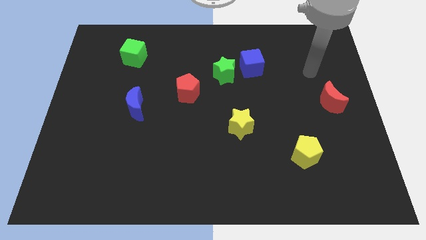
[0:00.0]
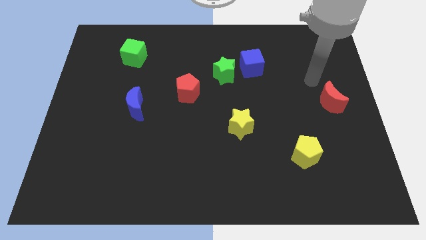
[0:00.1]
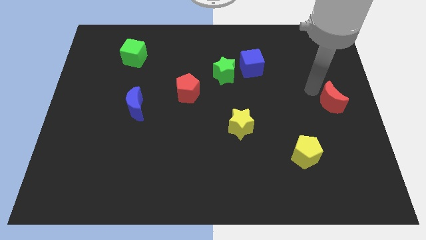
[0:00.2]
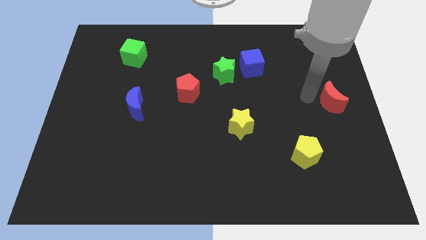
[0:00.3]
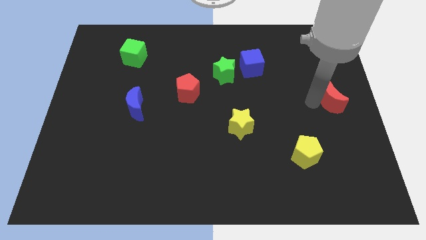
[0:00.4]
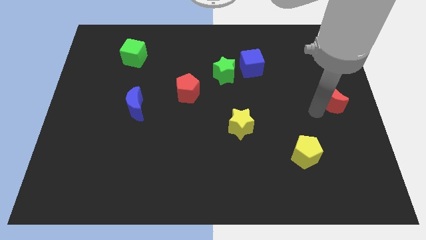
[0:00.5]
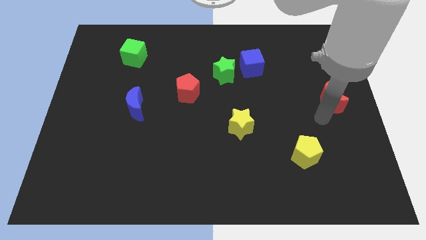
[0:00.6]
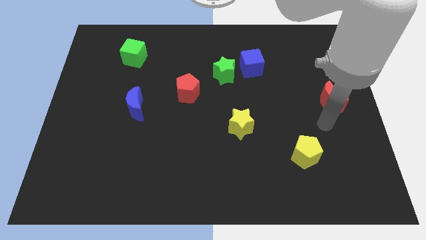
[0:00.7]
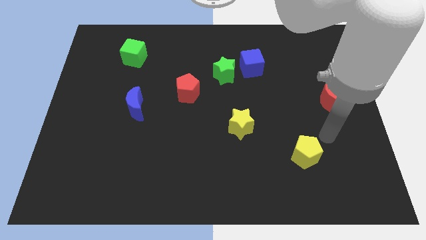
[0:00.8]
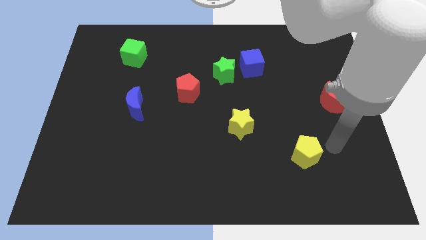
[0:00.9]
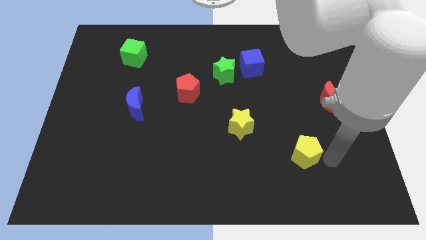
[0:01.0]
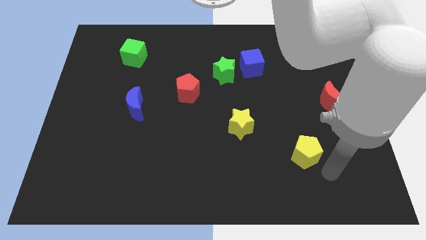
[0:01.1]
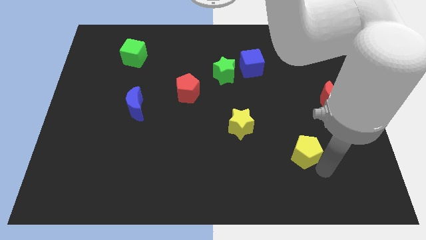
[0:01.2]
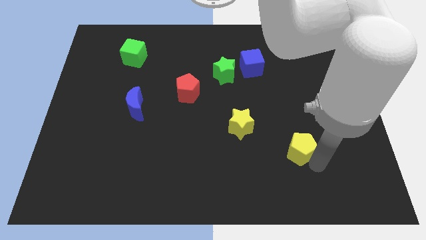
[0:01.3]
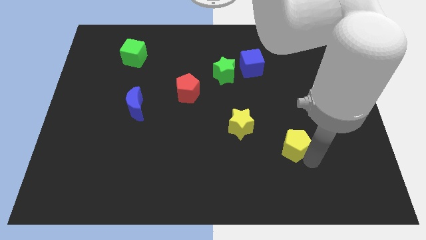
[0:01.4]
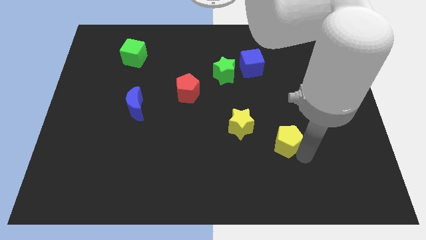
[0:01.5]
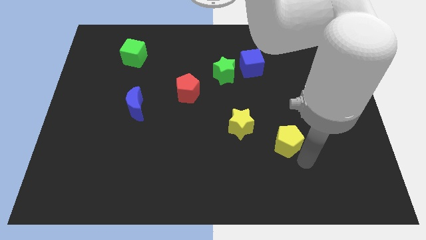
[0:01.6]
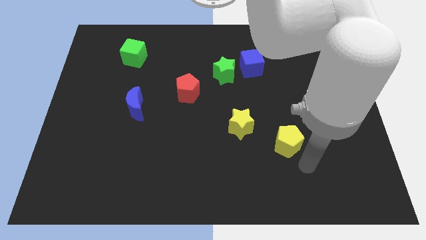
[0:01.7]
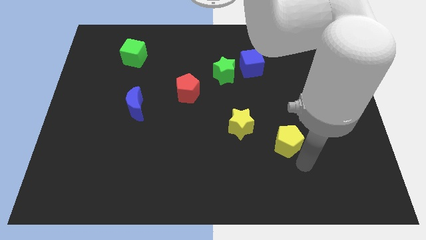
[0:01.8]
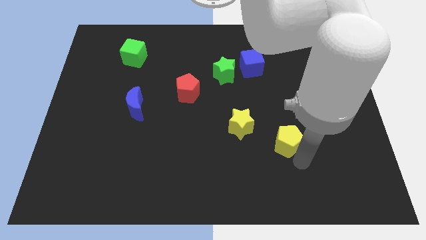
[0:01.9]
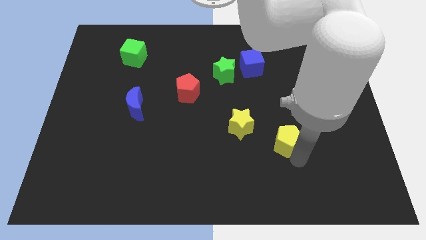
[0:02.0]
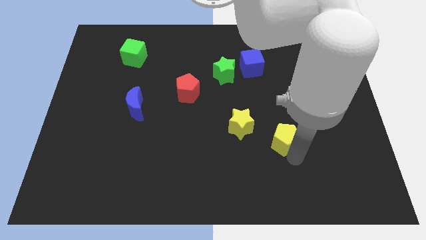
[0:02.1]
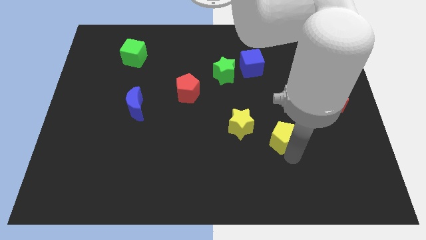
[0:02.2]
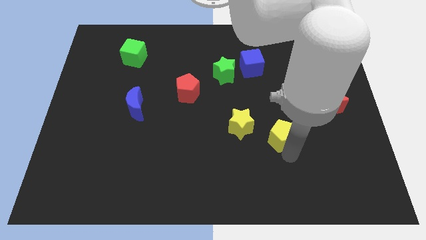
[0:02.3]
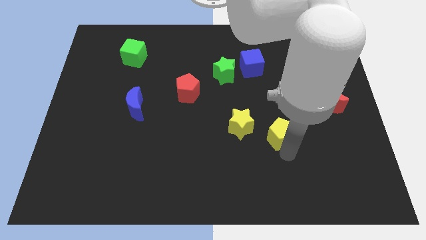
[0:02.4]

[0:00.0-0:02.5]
slide the yellow pentagon a little bit upwards and then left

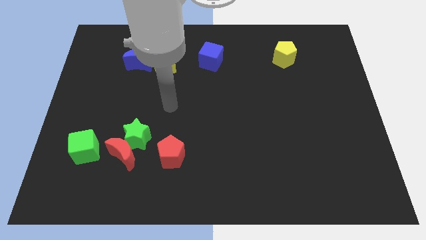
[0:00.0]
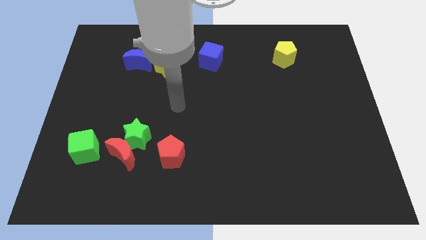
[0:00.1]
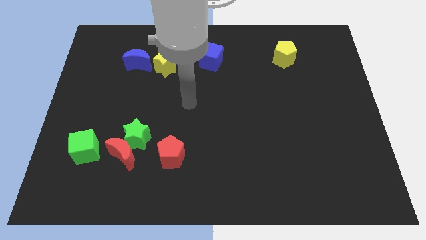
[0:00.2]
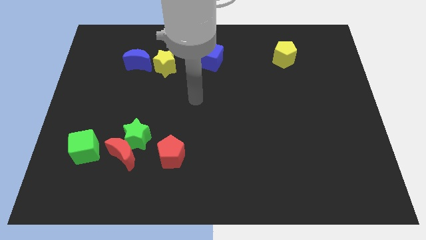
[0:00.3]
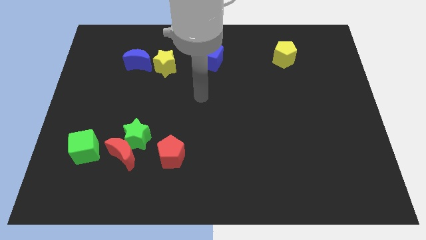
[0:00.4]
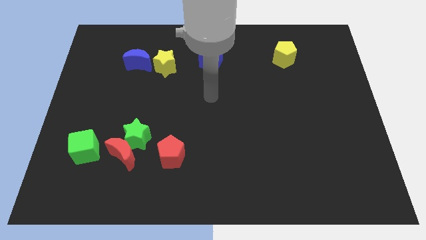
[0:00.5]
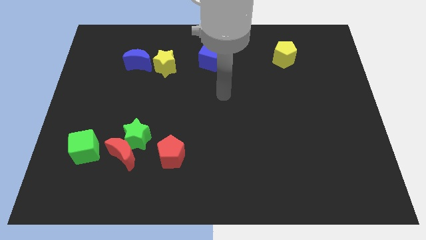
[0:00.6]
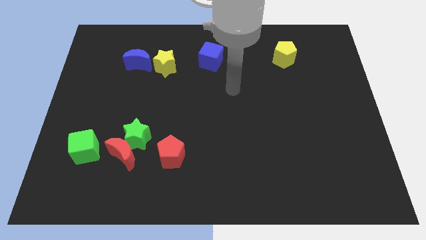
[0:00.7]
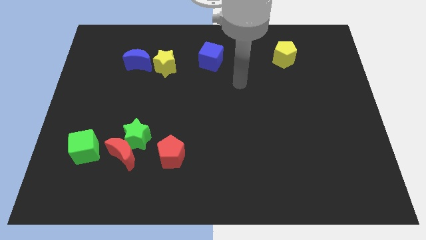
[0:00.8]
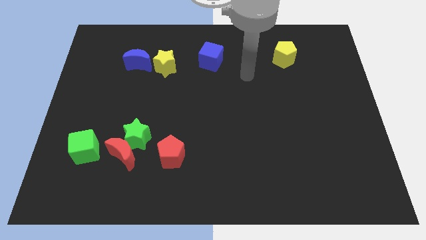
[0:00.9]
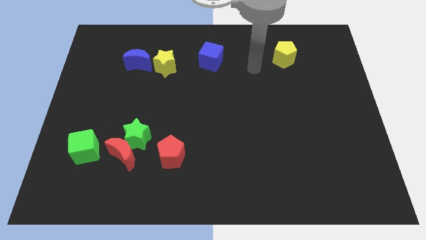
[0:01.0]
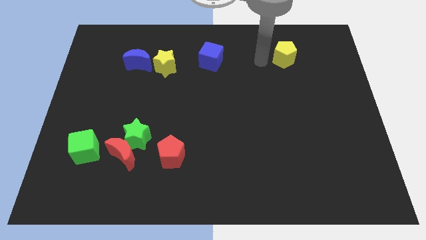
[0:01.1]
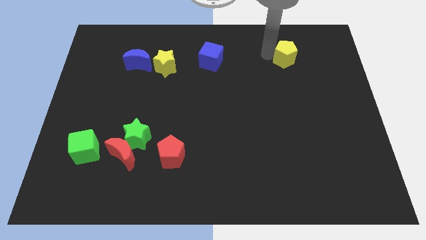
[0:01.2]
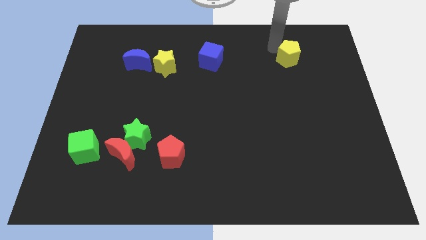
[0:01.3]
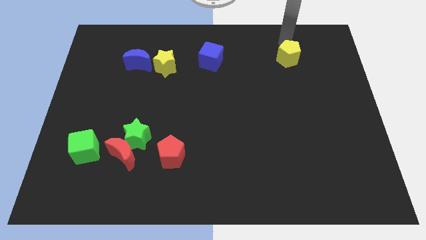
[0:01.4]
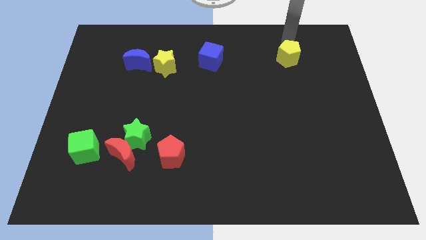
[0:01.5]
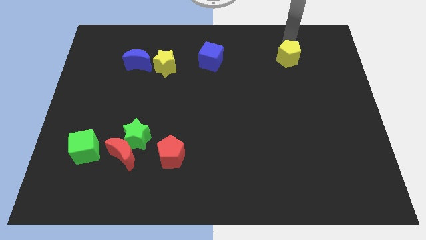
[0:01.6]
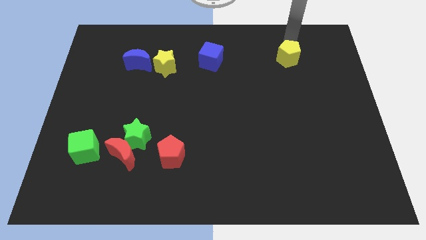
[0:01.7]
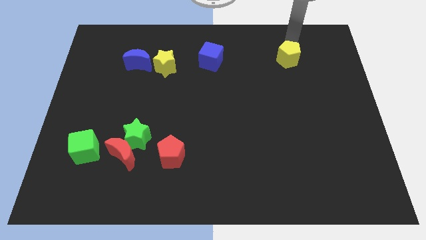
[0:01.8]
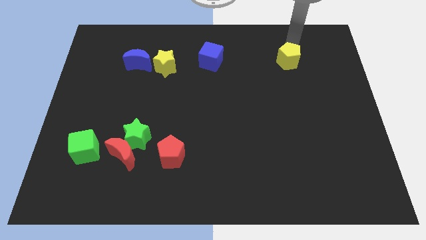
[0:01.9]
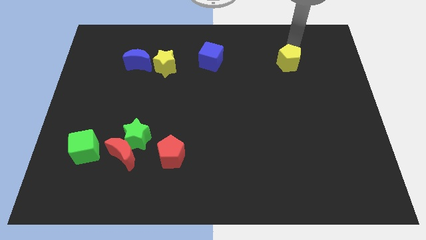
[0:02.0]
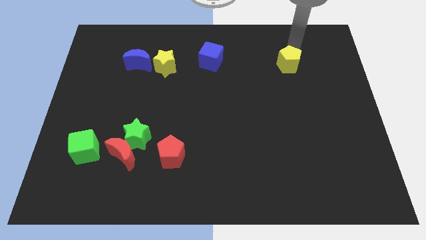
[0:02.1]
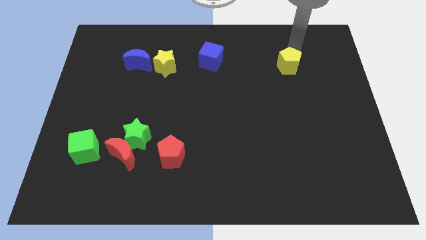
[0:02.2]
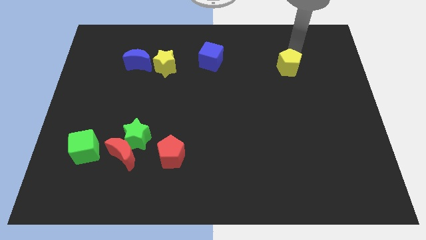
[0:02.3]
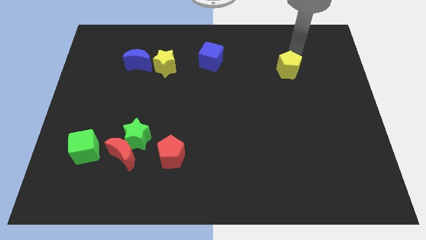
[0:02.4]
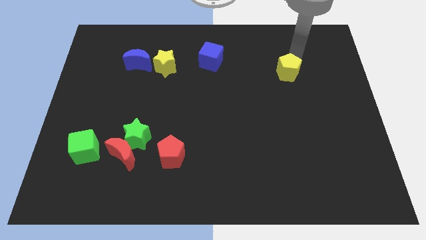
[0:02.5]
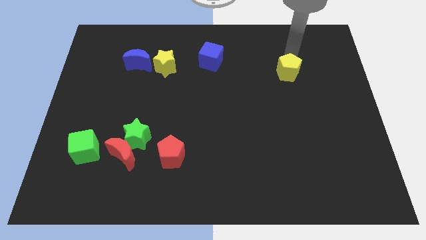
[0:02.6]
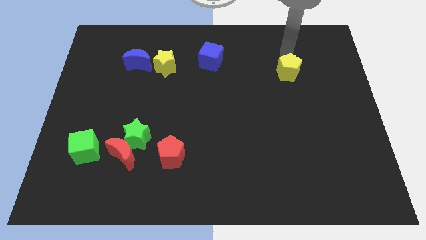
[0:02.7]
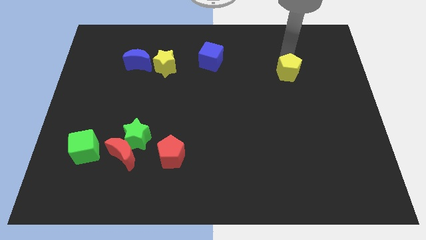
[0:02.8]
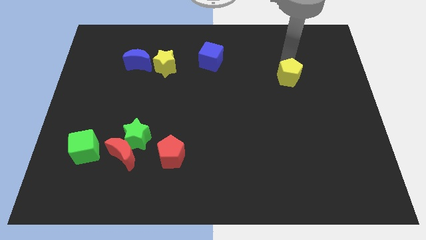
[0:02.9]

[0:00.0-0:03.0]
push the yellow pentagon down a little

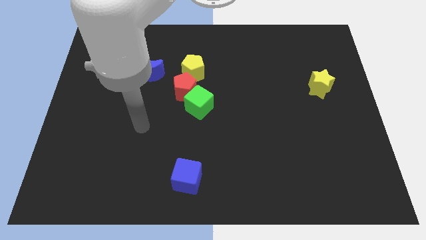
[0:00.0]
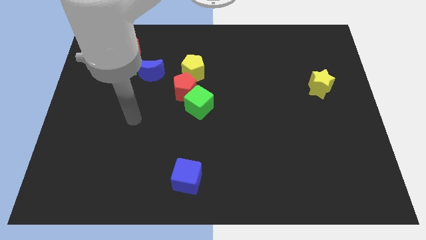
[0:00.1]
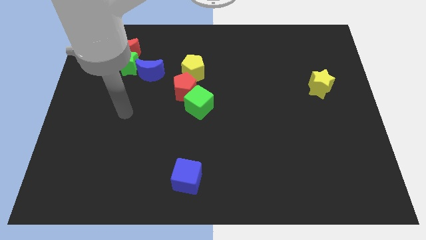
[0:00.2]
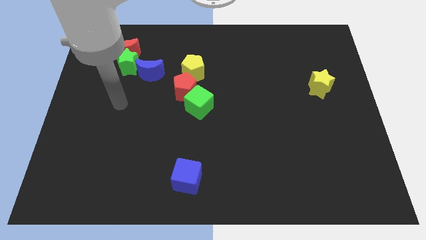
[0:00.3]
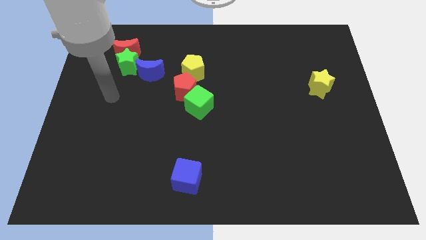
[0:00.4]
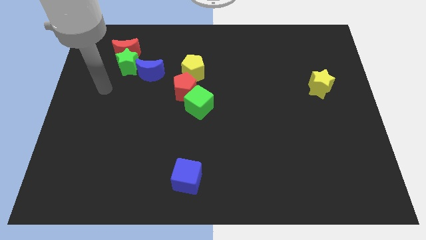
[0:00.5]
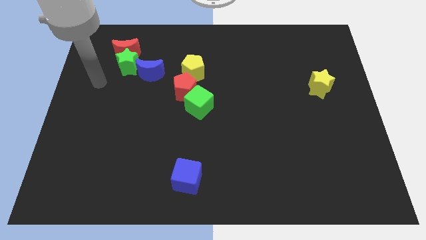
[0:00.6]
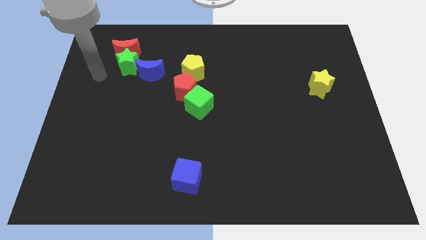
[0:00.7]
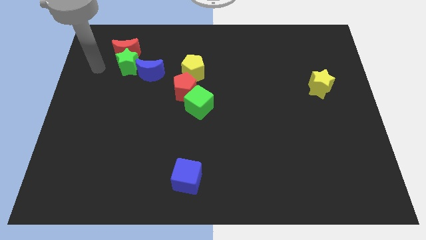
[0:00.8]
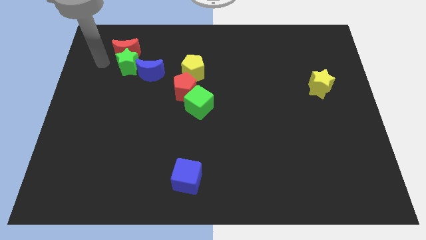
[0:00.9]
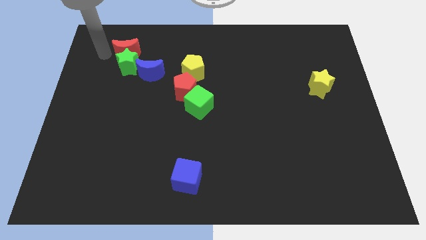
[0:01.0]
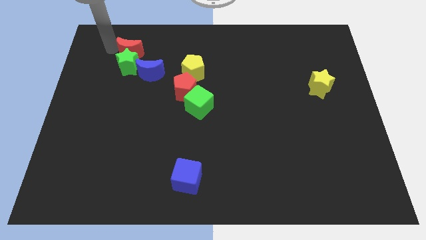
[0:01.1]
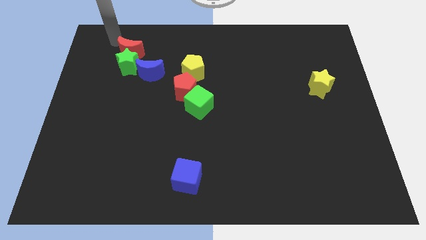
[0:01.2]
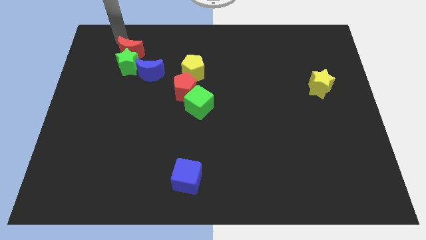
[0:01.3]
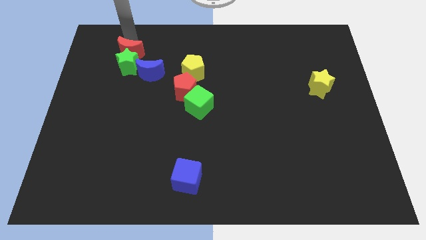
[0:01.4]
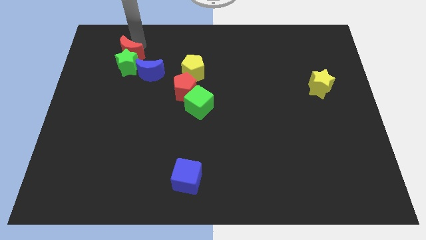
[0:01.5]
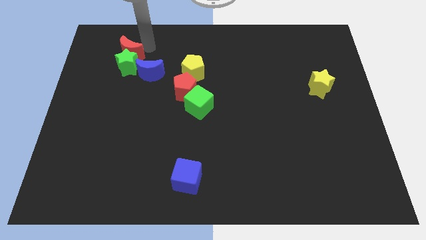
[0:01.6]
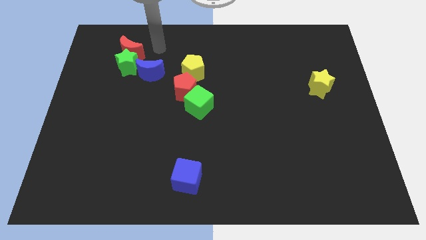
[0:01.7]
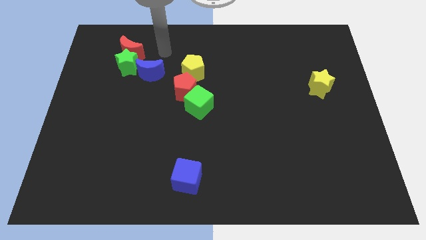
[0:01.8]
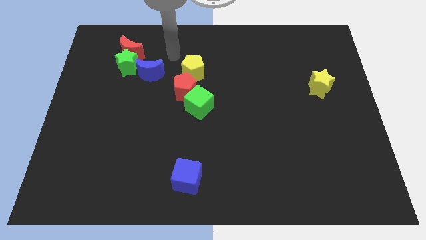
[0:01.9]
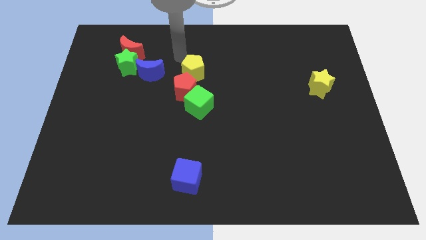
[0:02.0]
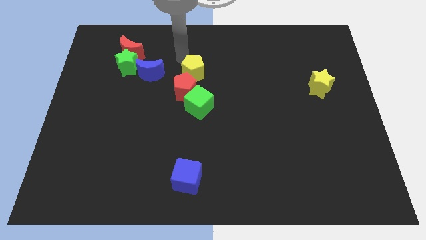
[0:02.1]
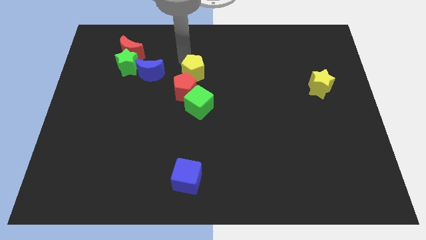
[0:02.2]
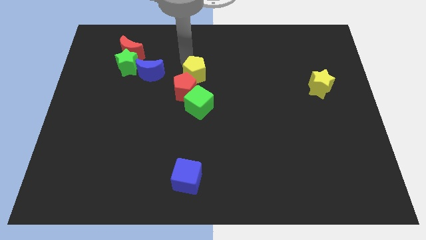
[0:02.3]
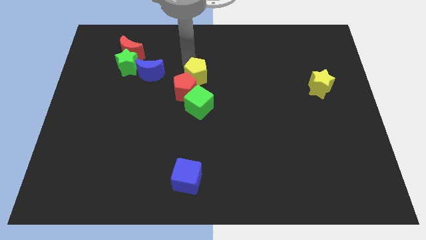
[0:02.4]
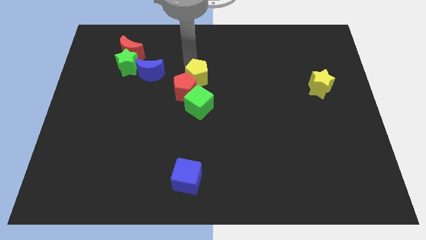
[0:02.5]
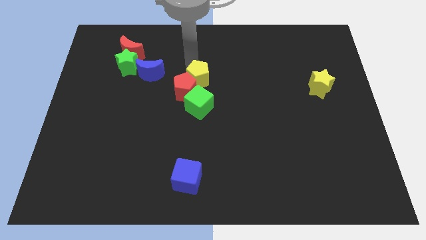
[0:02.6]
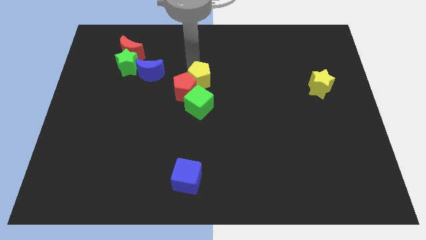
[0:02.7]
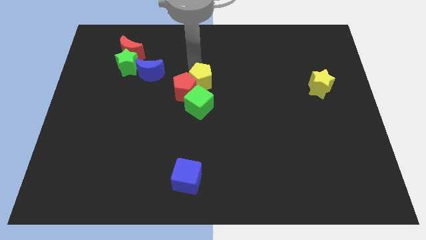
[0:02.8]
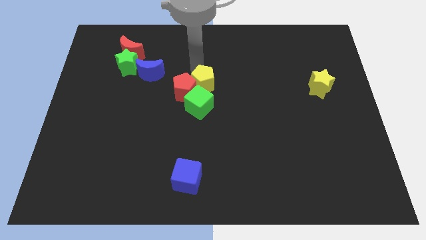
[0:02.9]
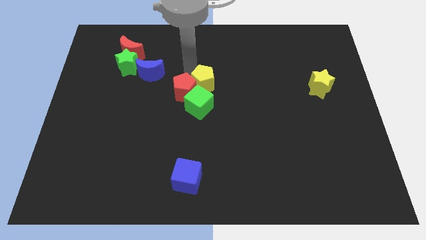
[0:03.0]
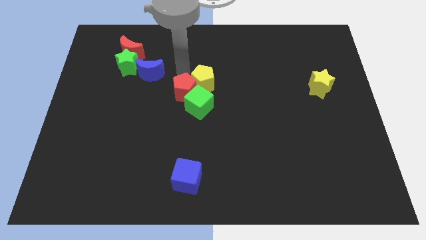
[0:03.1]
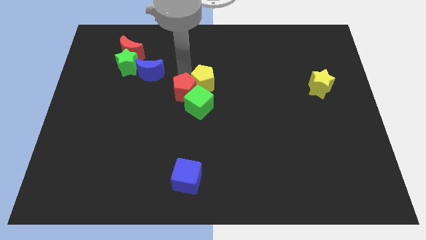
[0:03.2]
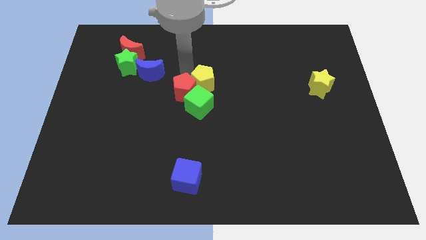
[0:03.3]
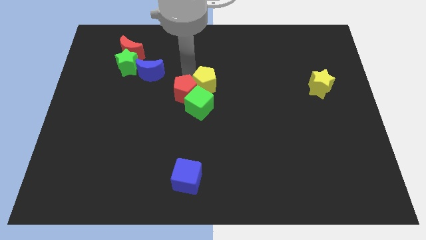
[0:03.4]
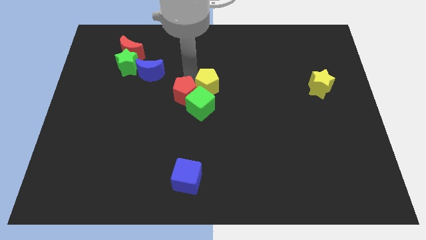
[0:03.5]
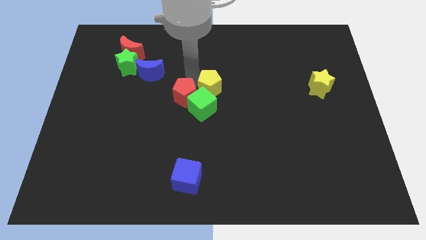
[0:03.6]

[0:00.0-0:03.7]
slightly move the yellow pentagon downwards and then to the right
